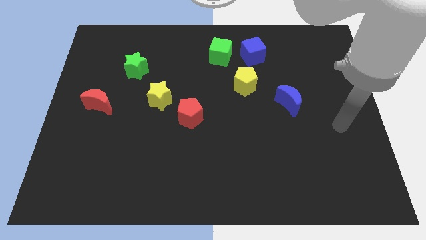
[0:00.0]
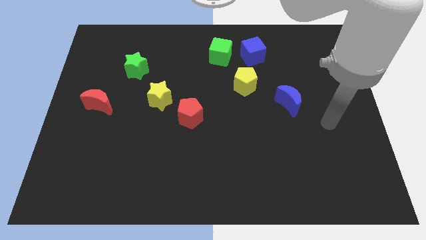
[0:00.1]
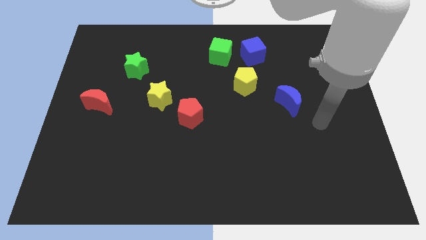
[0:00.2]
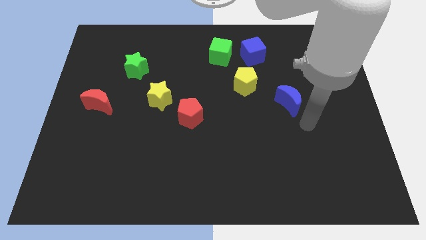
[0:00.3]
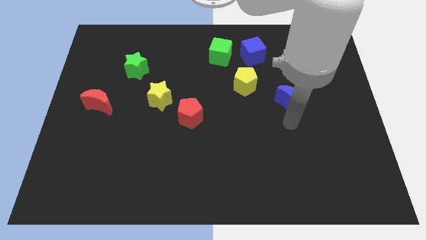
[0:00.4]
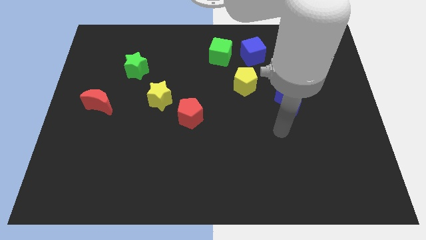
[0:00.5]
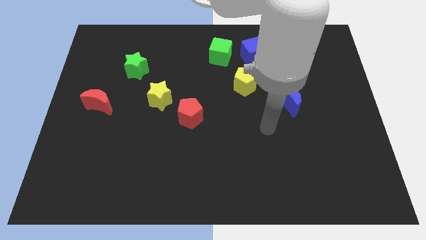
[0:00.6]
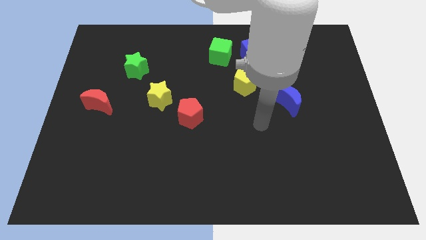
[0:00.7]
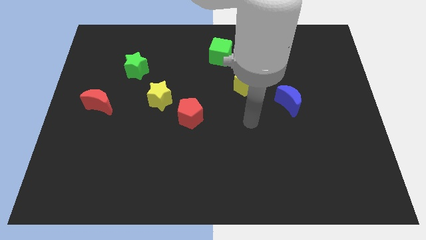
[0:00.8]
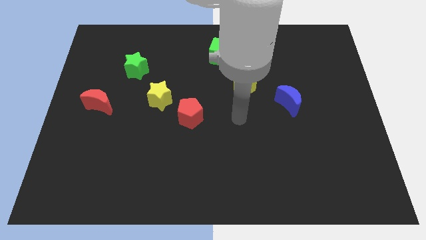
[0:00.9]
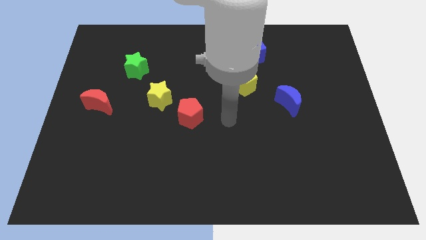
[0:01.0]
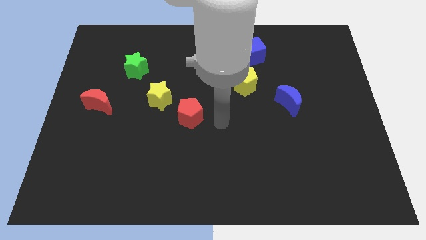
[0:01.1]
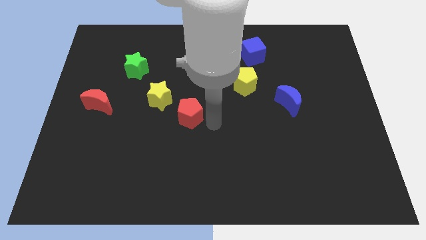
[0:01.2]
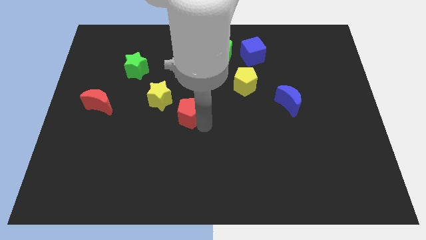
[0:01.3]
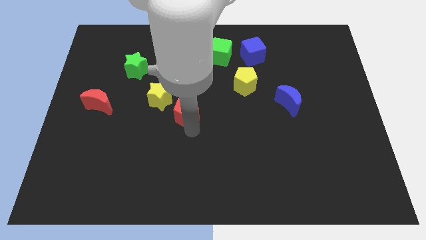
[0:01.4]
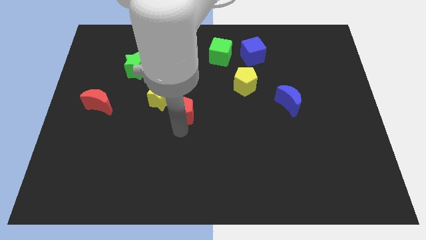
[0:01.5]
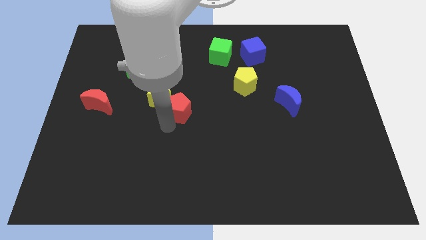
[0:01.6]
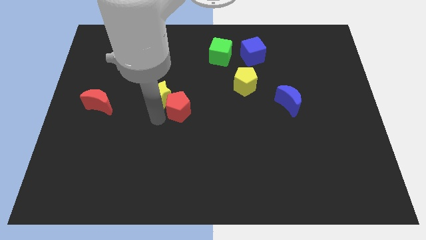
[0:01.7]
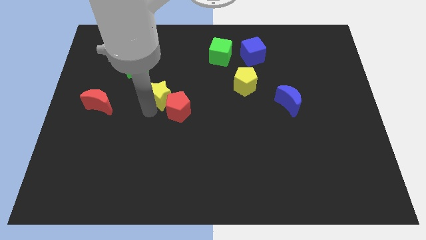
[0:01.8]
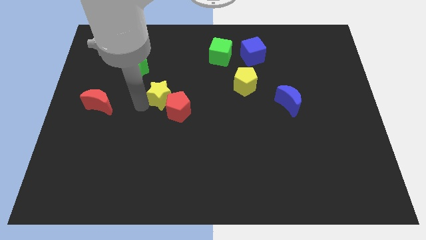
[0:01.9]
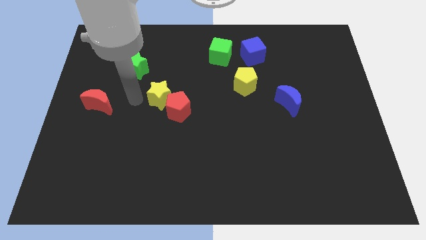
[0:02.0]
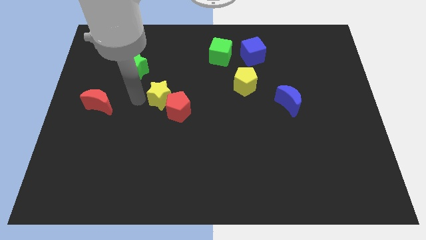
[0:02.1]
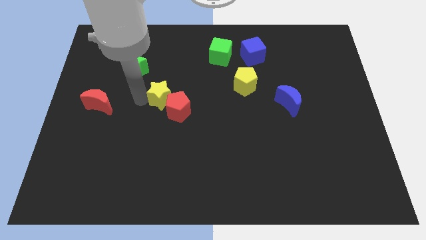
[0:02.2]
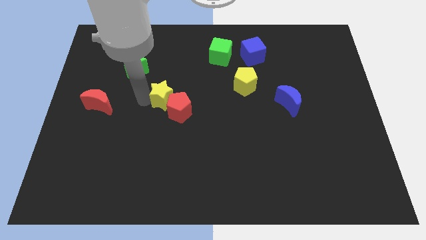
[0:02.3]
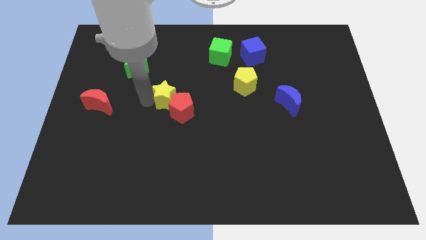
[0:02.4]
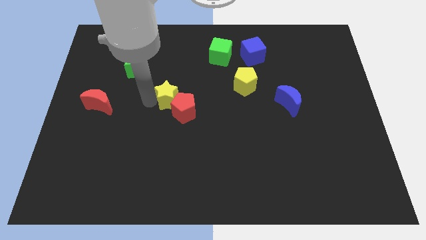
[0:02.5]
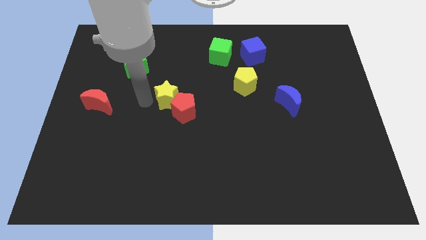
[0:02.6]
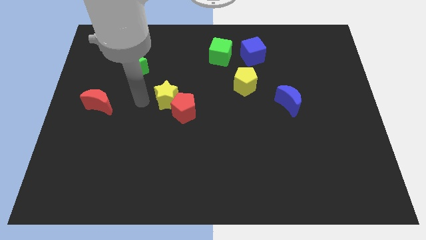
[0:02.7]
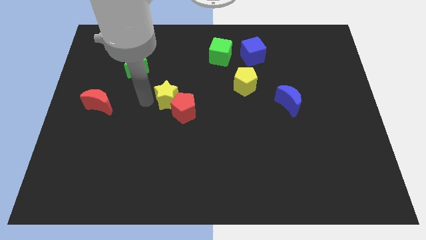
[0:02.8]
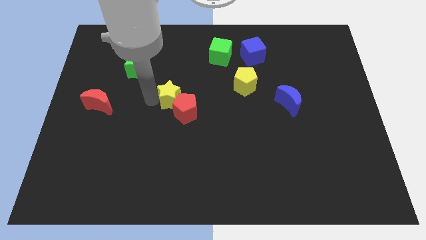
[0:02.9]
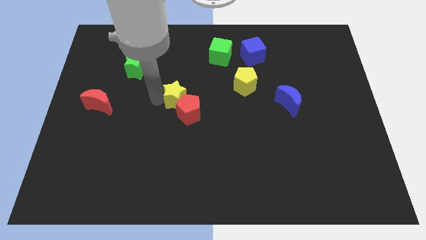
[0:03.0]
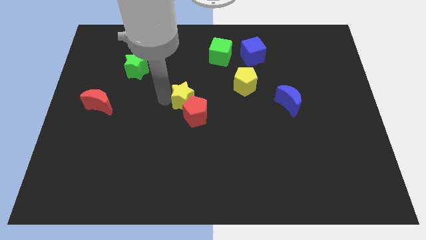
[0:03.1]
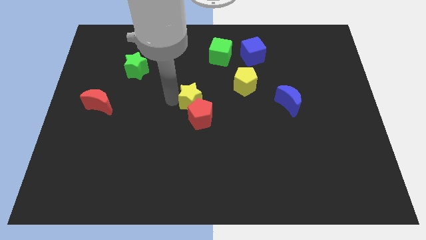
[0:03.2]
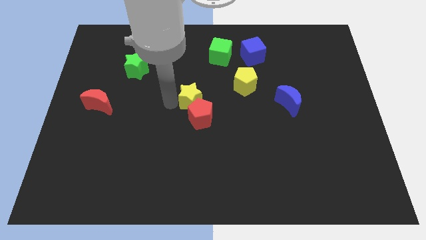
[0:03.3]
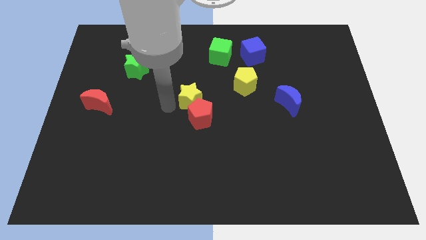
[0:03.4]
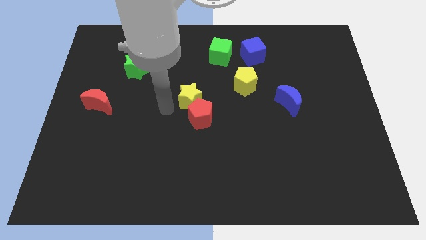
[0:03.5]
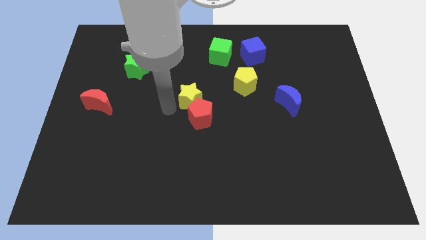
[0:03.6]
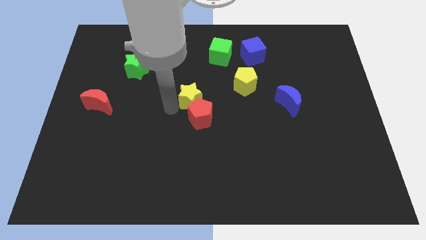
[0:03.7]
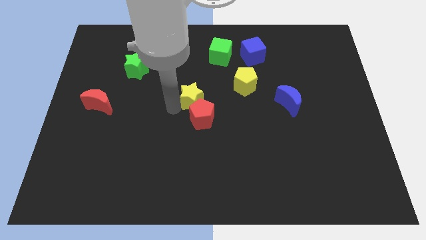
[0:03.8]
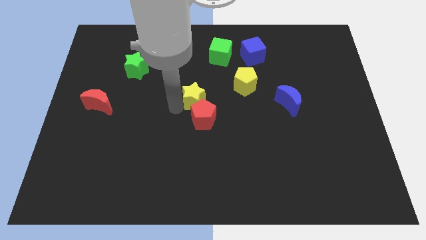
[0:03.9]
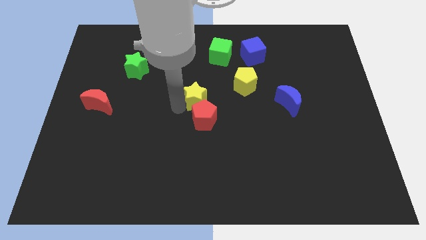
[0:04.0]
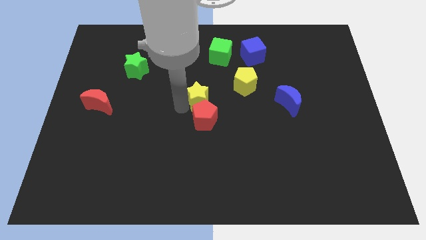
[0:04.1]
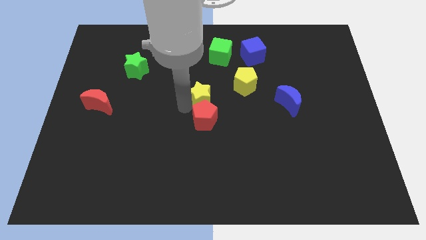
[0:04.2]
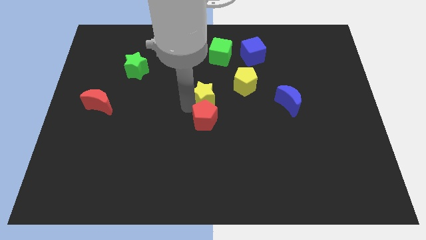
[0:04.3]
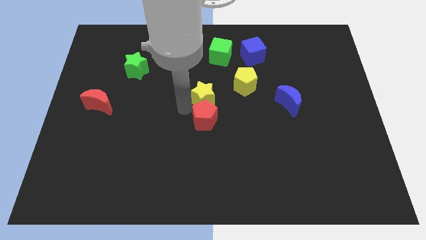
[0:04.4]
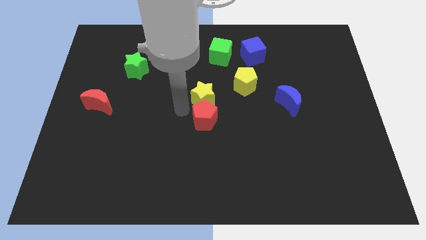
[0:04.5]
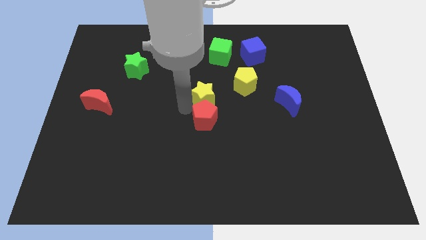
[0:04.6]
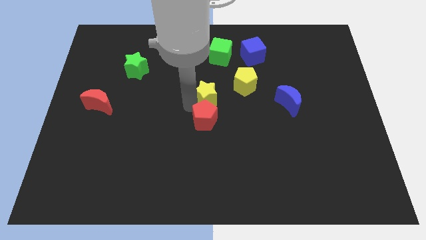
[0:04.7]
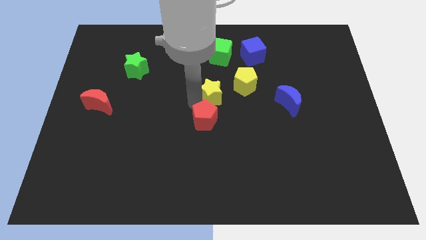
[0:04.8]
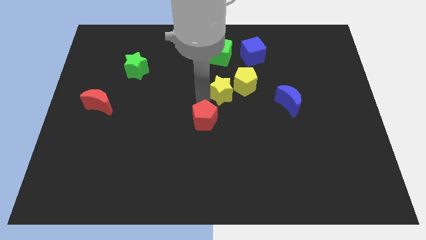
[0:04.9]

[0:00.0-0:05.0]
slide the yellow star towards the yellow pentagon

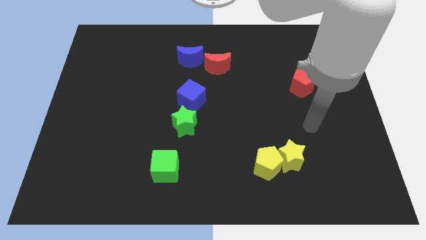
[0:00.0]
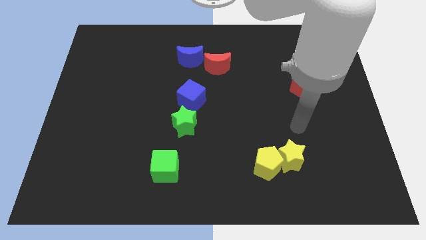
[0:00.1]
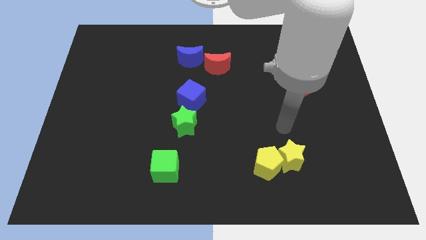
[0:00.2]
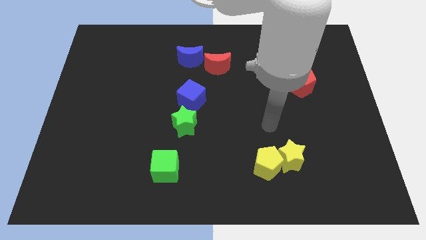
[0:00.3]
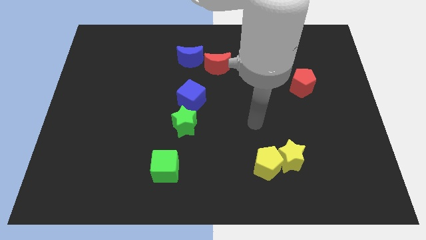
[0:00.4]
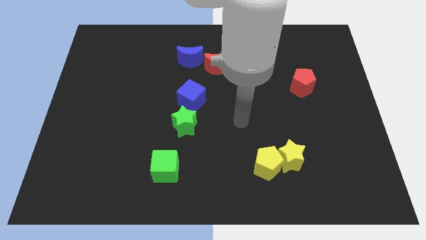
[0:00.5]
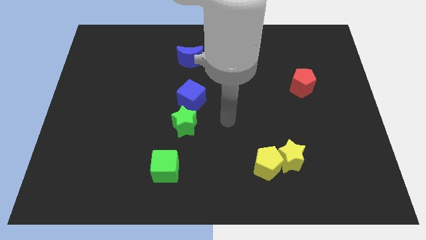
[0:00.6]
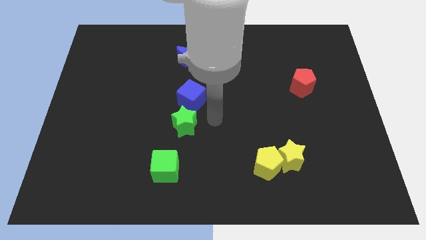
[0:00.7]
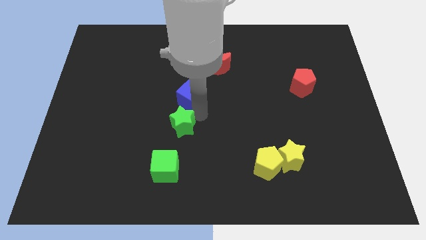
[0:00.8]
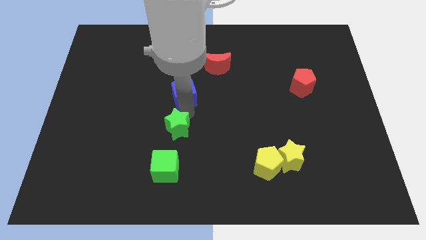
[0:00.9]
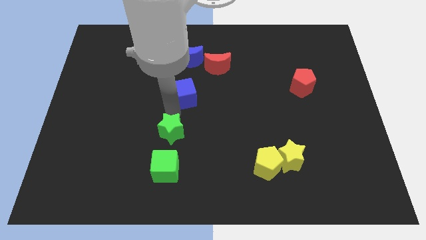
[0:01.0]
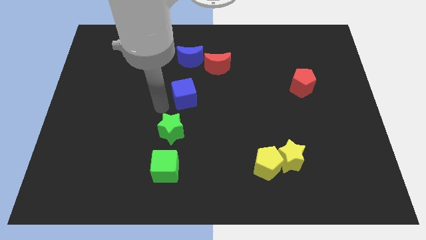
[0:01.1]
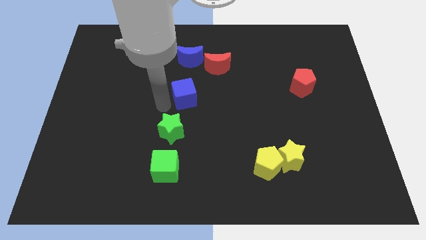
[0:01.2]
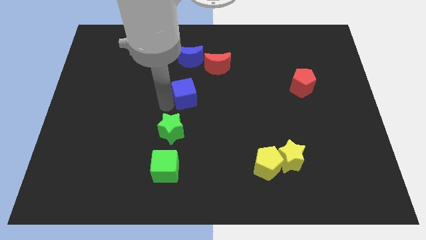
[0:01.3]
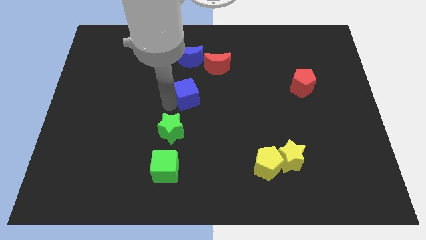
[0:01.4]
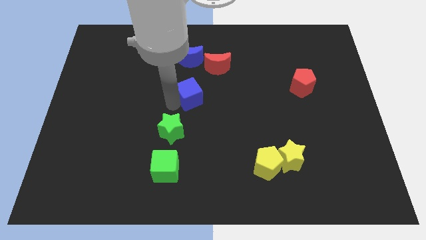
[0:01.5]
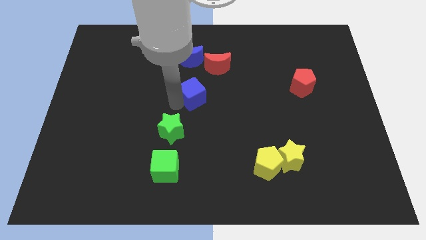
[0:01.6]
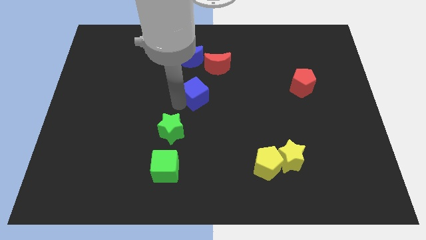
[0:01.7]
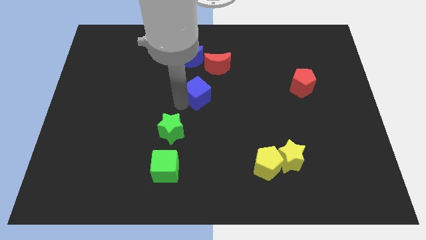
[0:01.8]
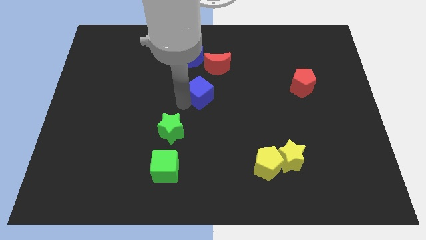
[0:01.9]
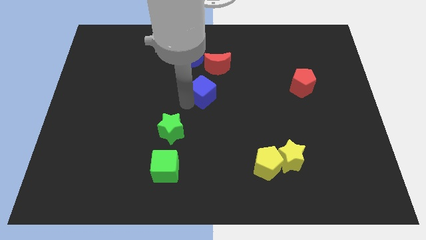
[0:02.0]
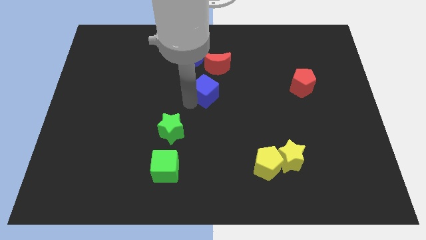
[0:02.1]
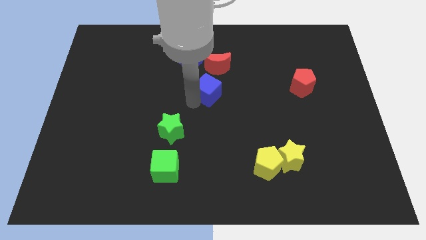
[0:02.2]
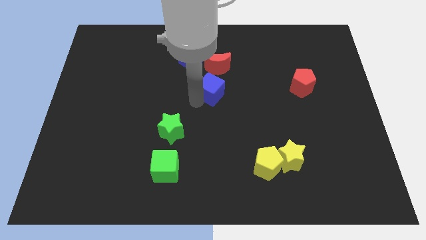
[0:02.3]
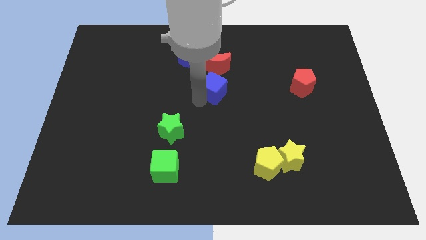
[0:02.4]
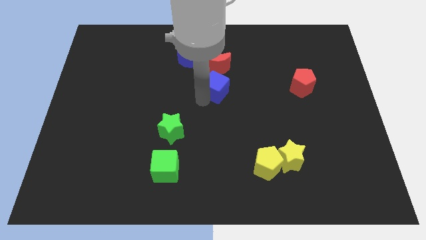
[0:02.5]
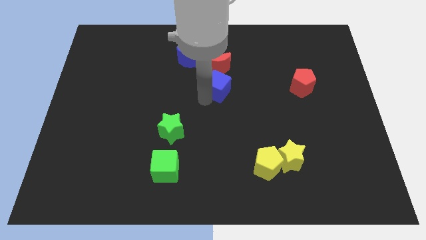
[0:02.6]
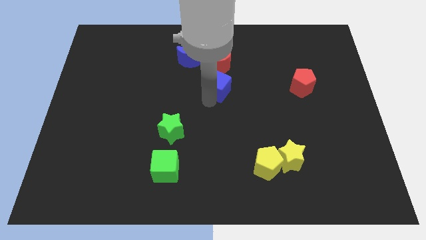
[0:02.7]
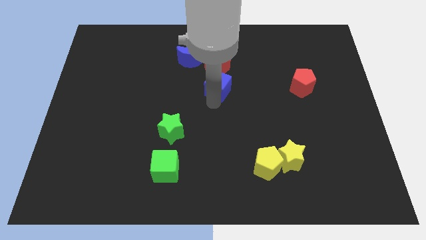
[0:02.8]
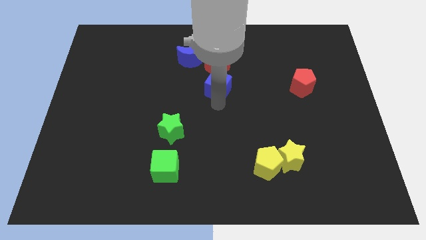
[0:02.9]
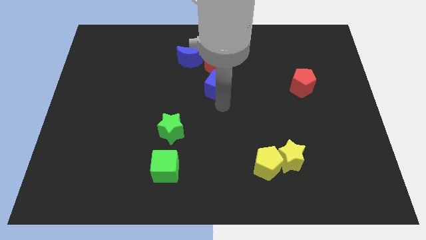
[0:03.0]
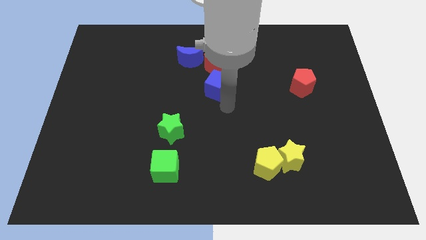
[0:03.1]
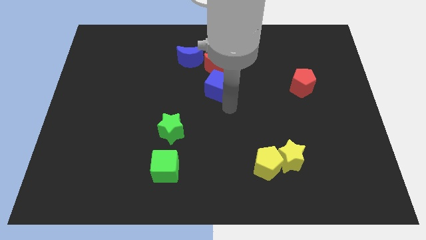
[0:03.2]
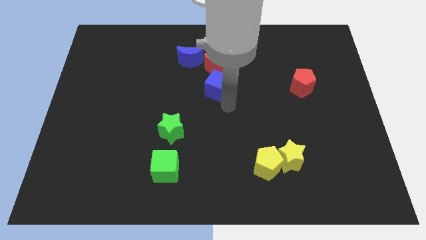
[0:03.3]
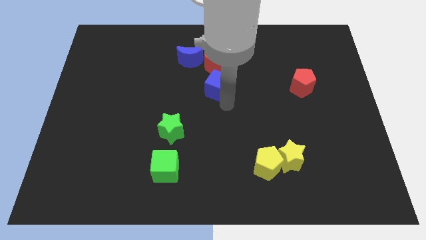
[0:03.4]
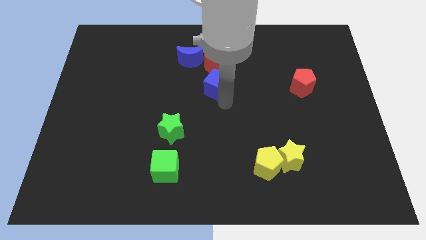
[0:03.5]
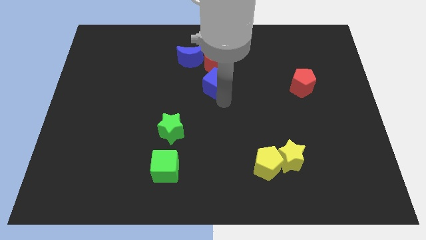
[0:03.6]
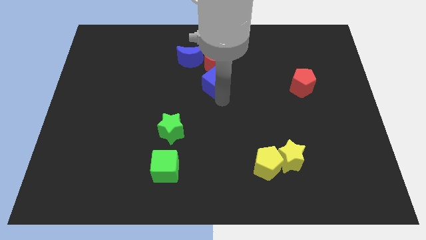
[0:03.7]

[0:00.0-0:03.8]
move the blue cube towards the red moon
